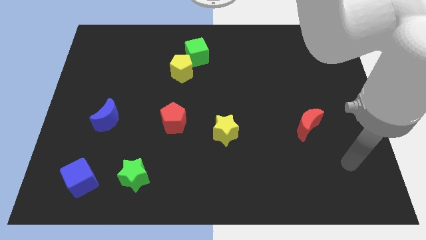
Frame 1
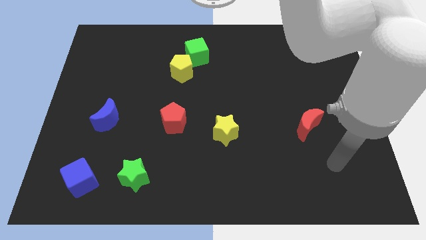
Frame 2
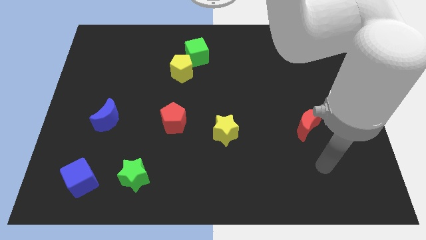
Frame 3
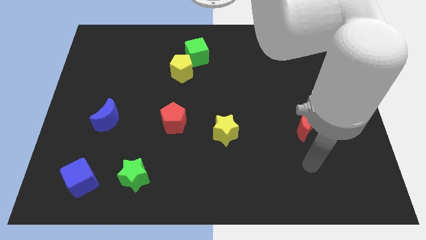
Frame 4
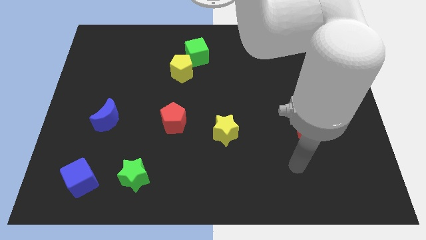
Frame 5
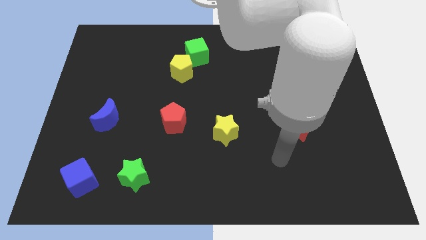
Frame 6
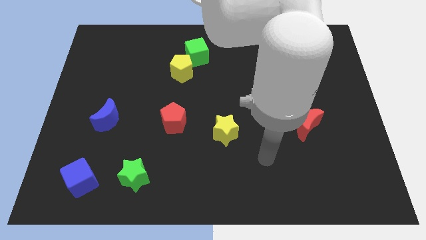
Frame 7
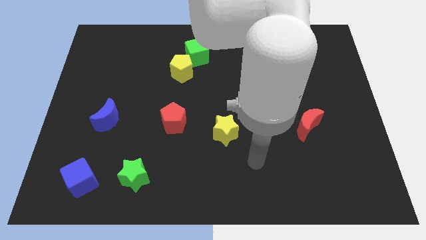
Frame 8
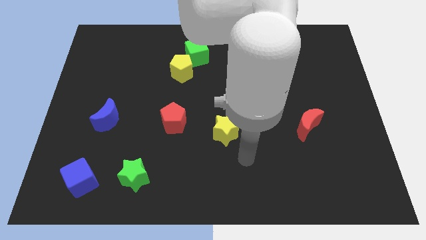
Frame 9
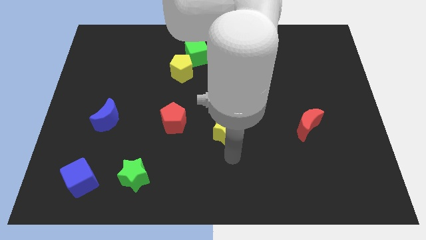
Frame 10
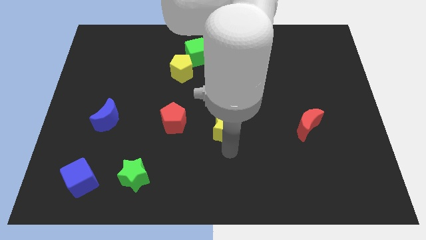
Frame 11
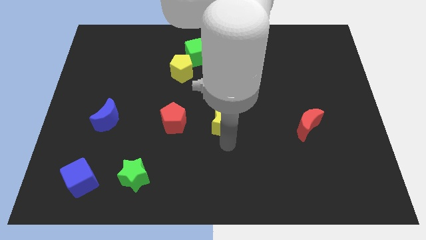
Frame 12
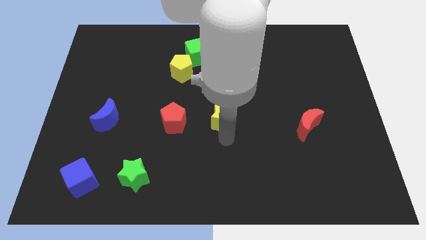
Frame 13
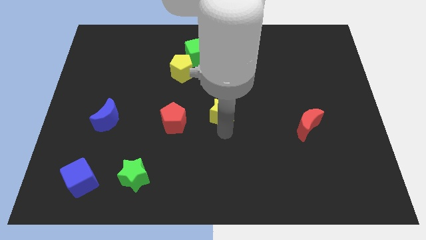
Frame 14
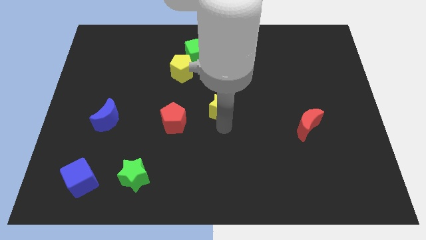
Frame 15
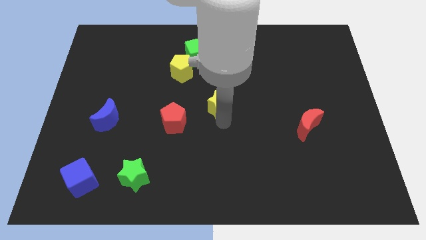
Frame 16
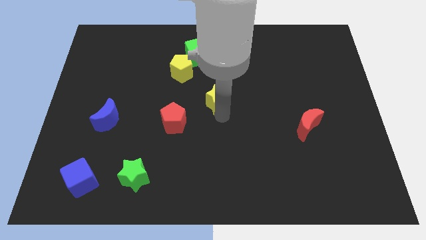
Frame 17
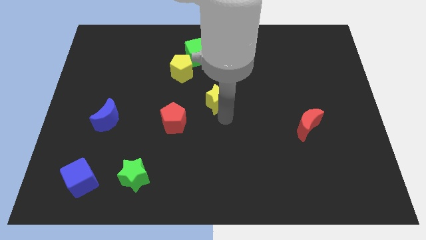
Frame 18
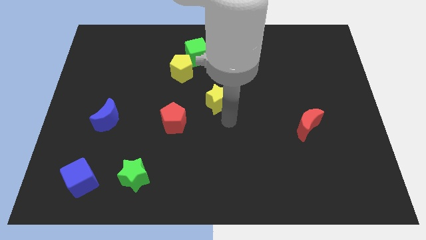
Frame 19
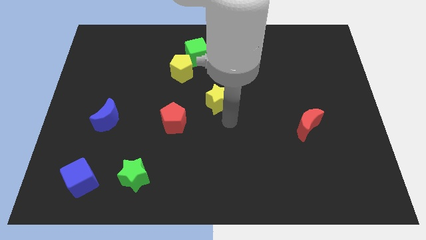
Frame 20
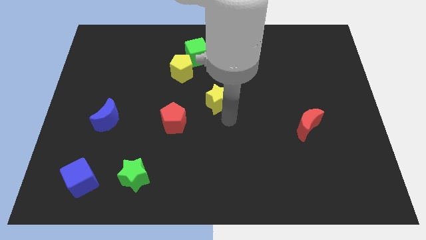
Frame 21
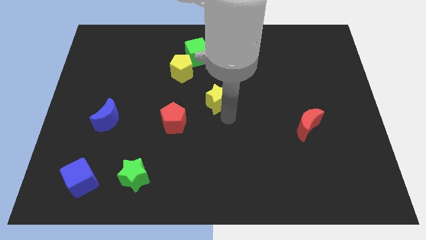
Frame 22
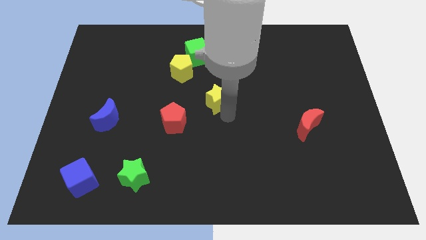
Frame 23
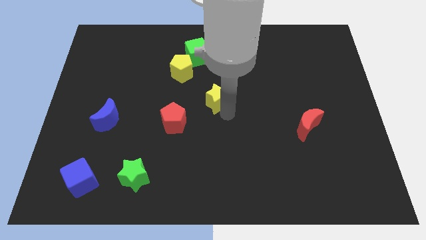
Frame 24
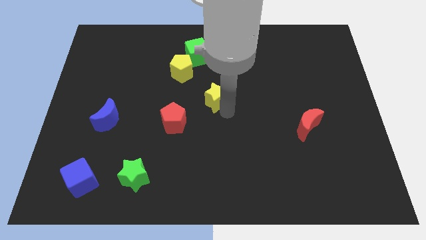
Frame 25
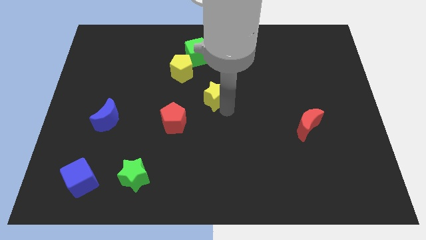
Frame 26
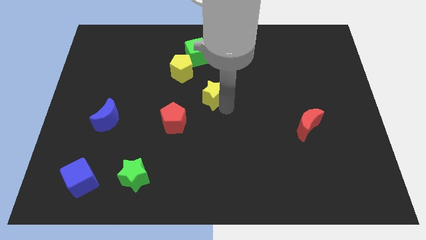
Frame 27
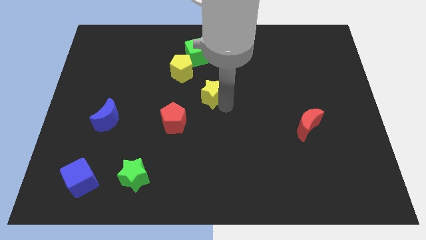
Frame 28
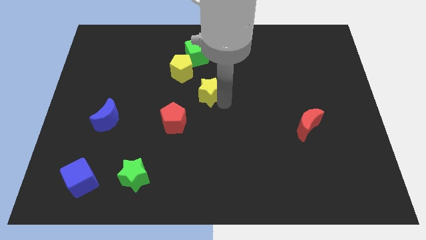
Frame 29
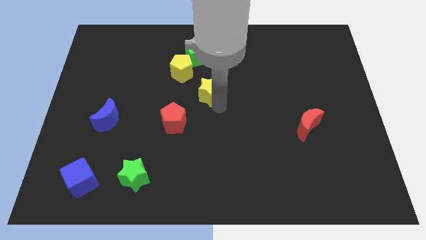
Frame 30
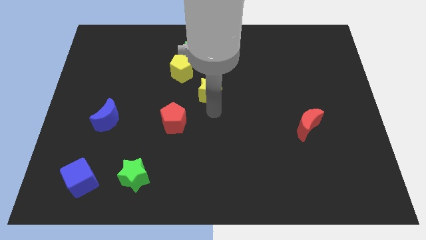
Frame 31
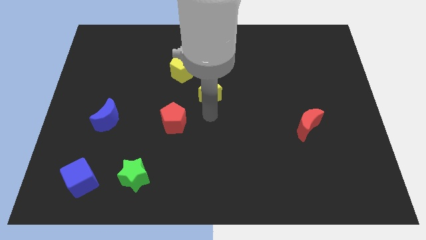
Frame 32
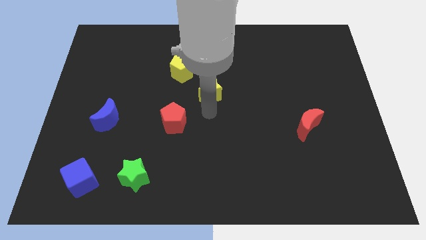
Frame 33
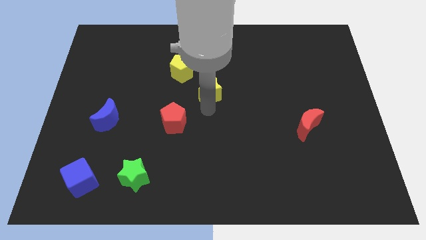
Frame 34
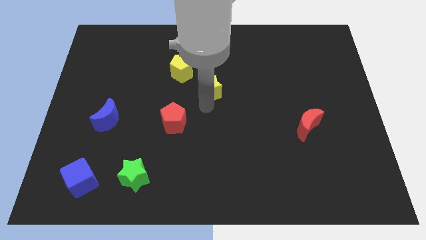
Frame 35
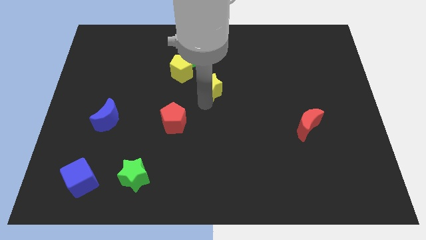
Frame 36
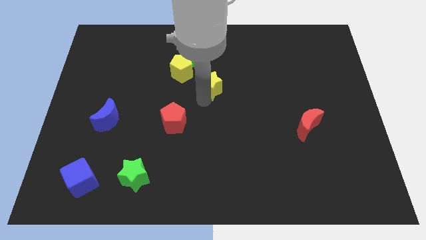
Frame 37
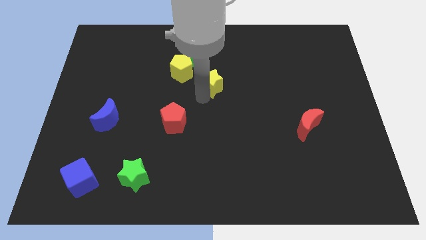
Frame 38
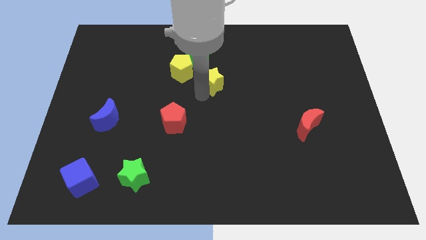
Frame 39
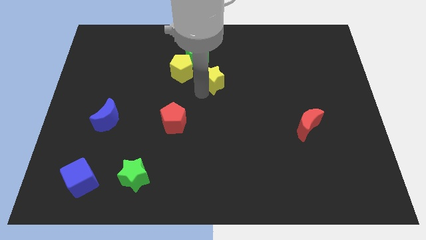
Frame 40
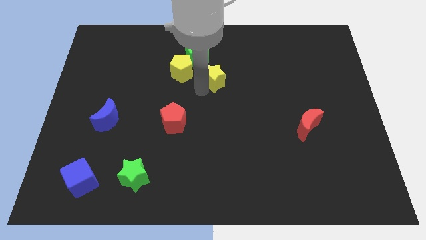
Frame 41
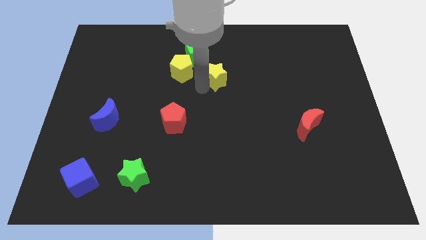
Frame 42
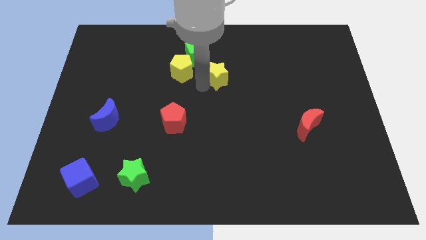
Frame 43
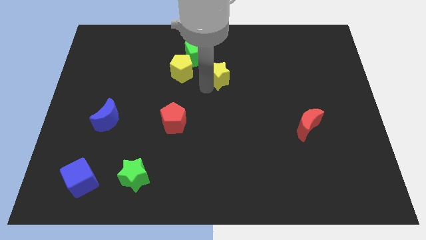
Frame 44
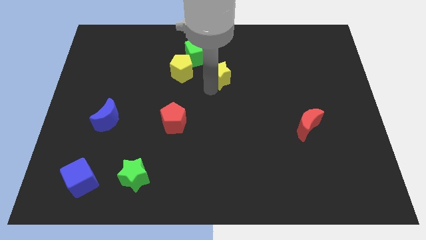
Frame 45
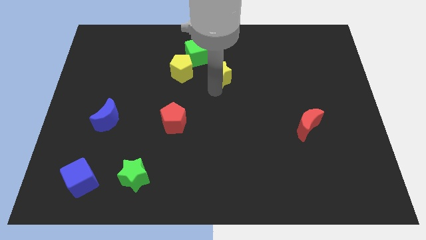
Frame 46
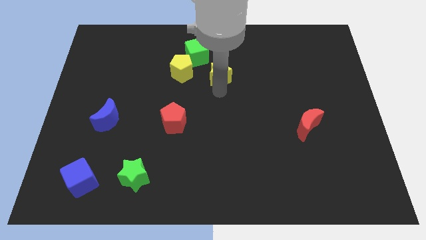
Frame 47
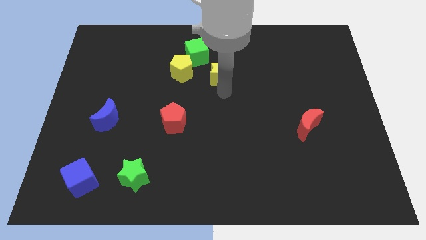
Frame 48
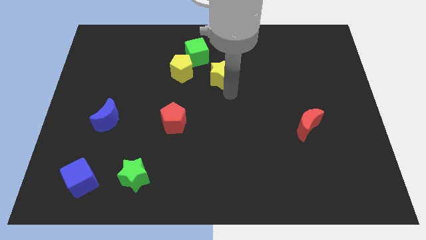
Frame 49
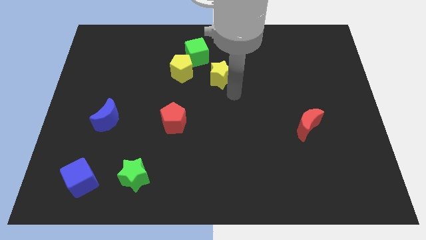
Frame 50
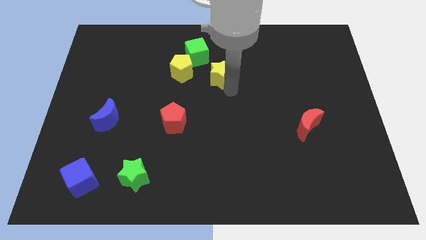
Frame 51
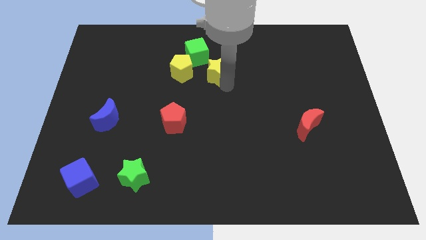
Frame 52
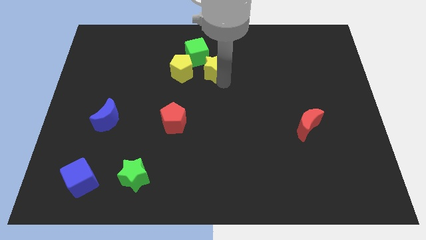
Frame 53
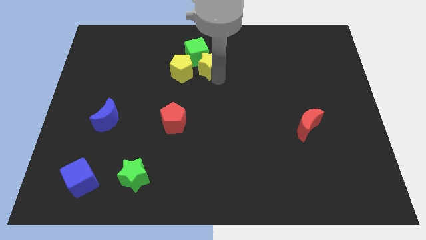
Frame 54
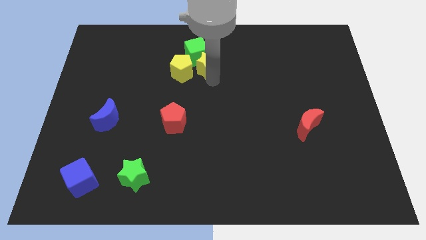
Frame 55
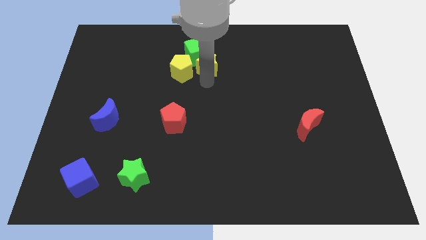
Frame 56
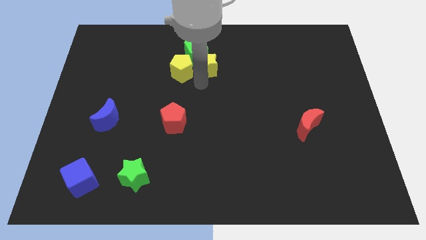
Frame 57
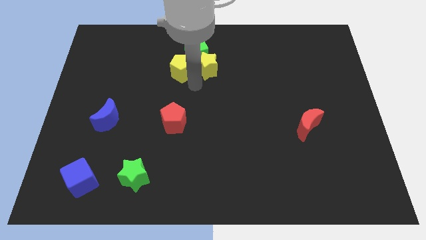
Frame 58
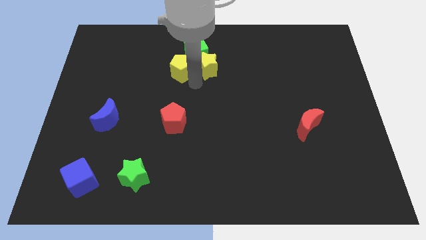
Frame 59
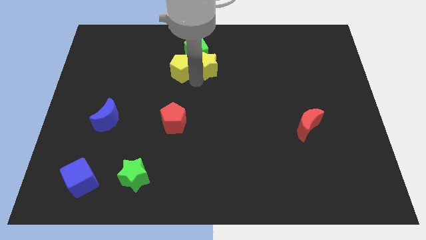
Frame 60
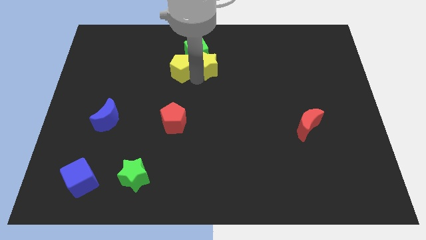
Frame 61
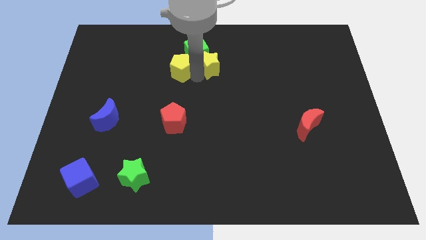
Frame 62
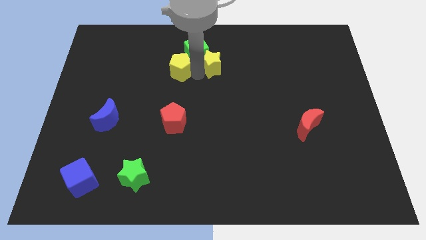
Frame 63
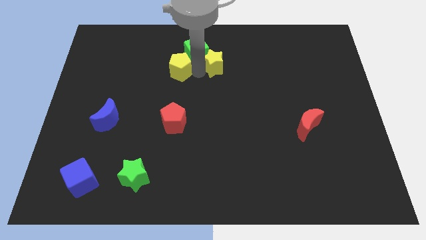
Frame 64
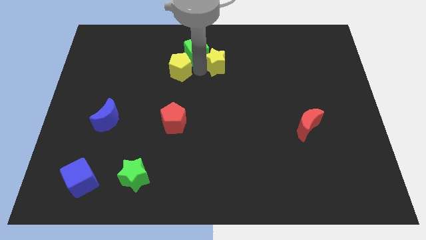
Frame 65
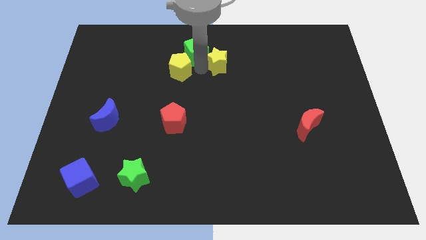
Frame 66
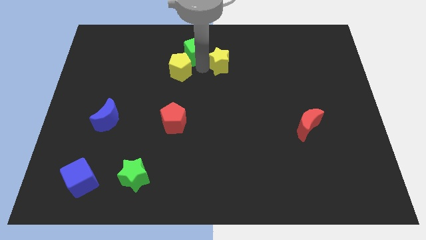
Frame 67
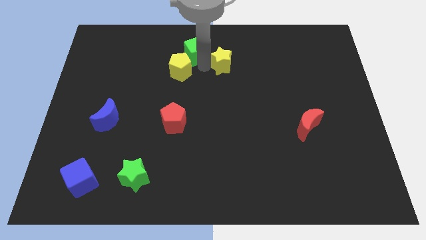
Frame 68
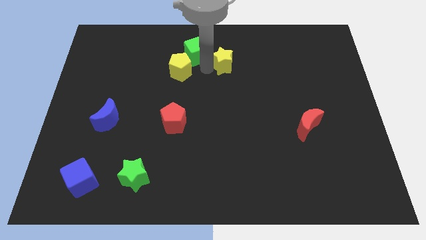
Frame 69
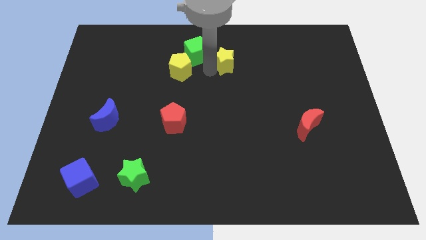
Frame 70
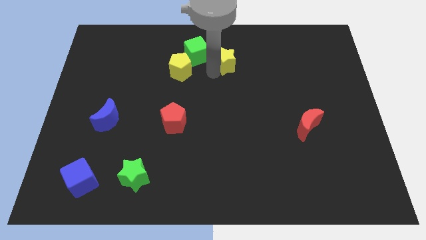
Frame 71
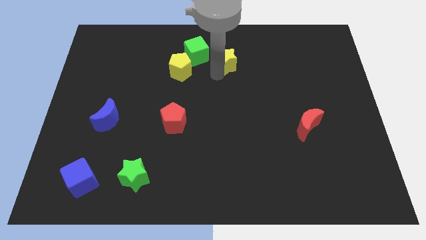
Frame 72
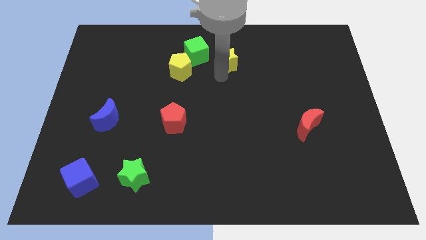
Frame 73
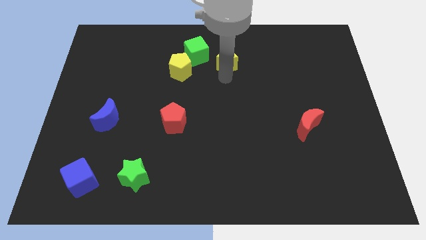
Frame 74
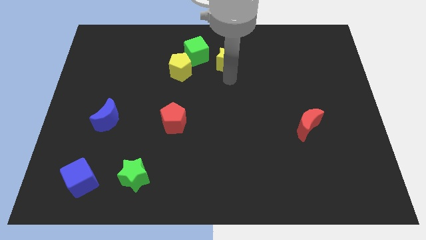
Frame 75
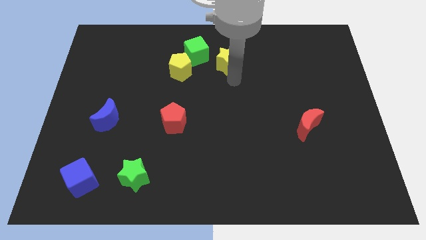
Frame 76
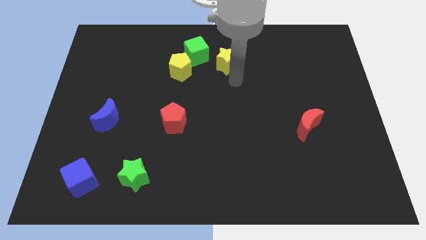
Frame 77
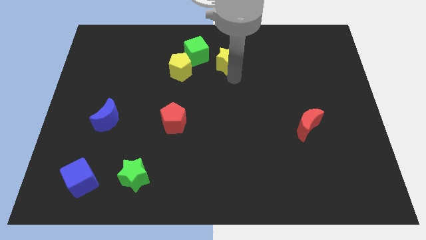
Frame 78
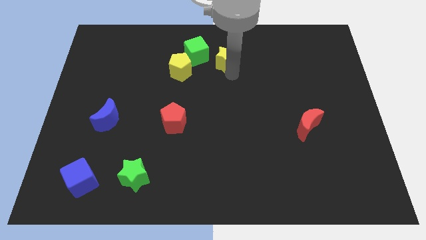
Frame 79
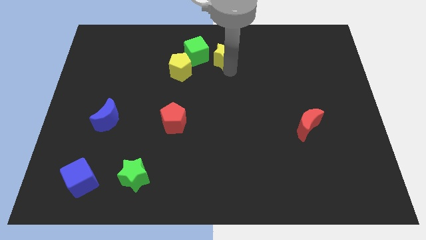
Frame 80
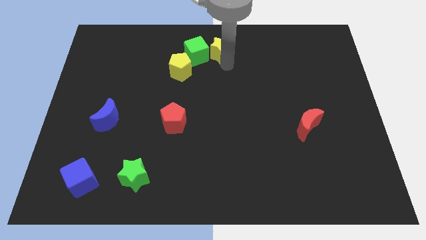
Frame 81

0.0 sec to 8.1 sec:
slide the yellow star to the towards your base
